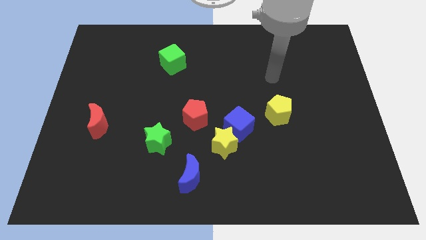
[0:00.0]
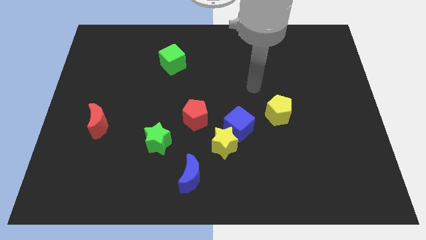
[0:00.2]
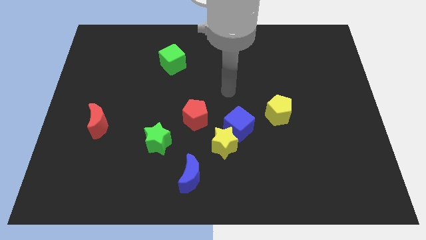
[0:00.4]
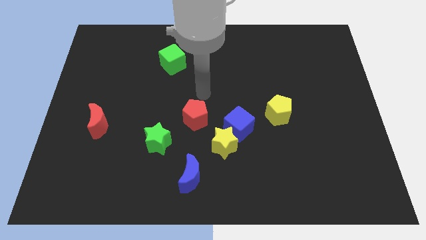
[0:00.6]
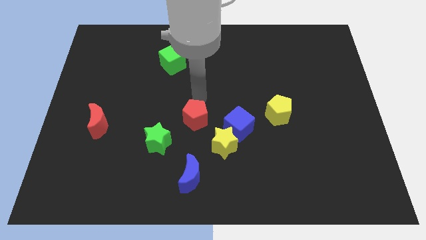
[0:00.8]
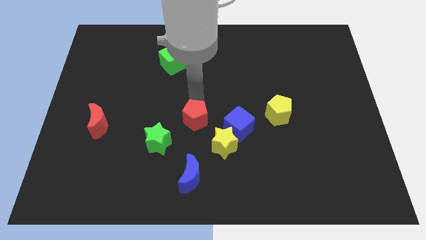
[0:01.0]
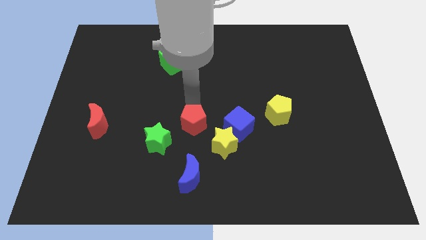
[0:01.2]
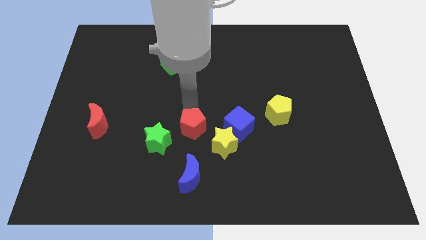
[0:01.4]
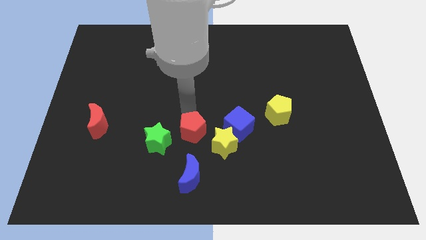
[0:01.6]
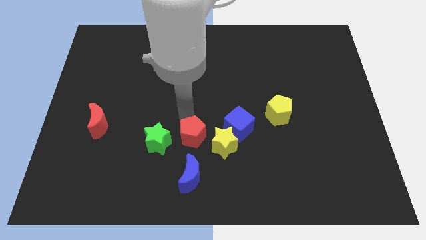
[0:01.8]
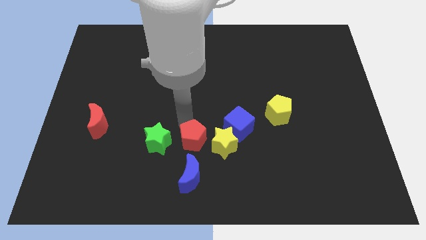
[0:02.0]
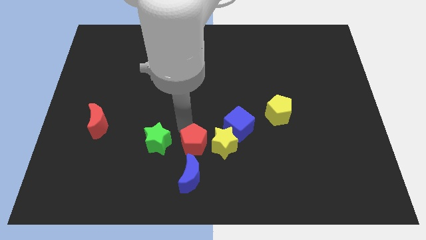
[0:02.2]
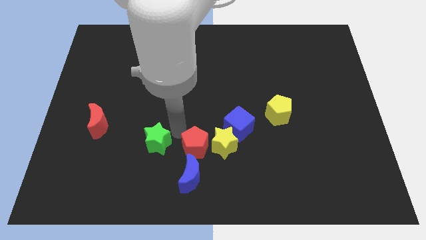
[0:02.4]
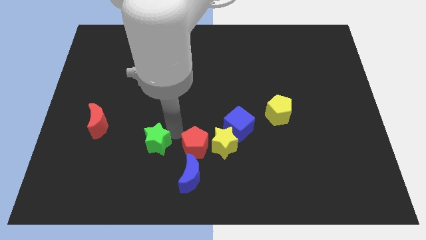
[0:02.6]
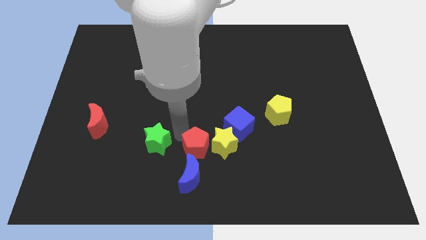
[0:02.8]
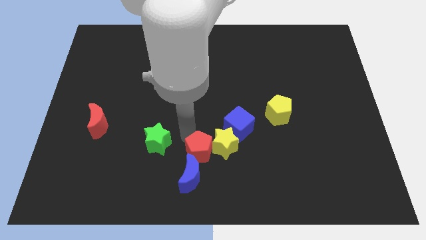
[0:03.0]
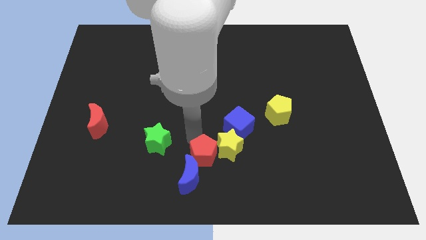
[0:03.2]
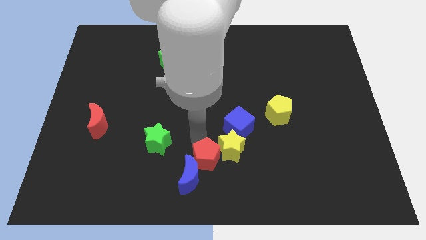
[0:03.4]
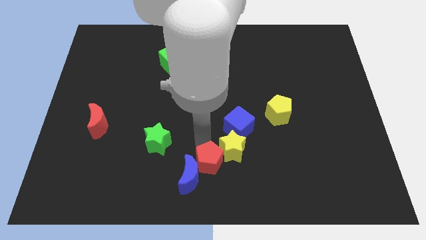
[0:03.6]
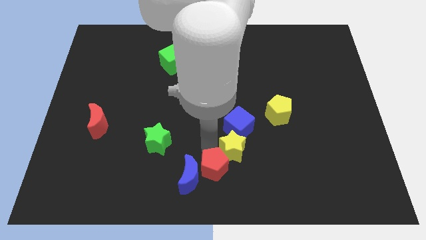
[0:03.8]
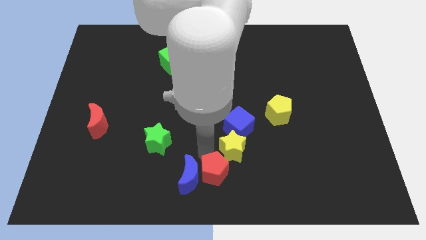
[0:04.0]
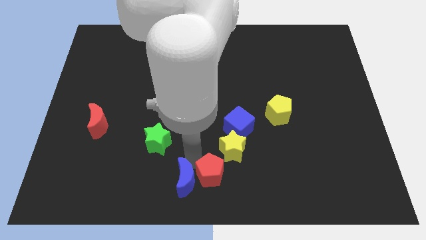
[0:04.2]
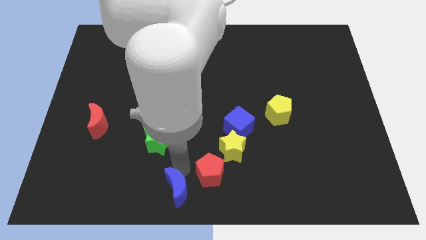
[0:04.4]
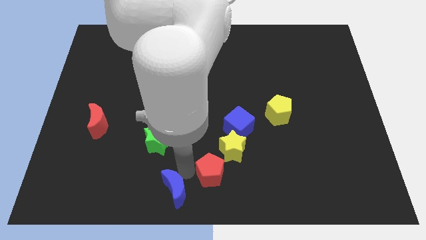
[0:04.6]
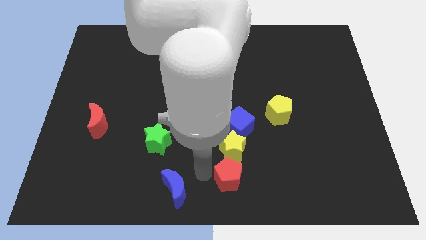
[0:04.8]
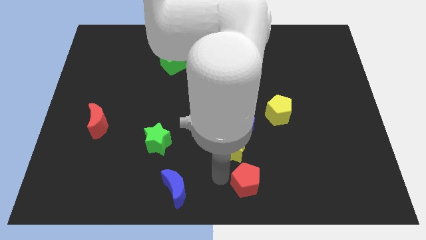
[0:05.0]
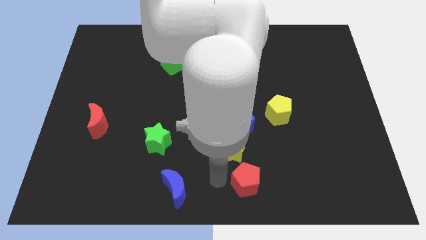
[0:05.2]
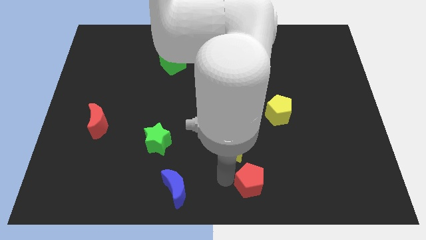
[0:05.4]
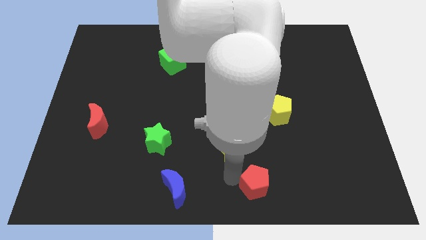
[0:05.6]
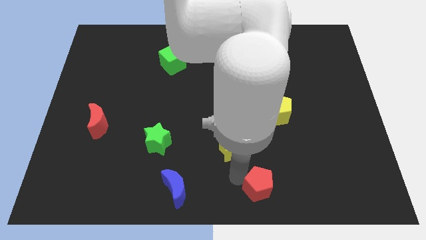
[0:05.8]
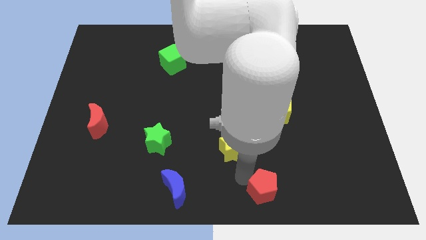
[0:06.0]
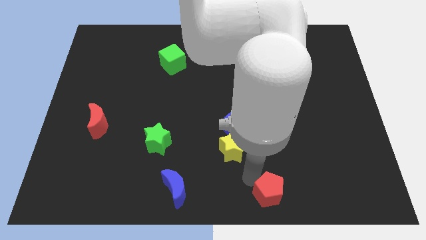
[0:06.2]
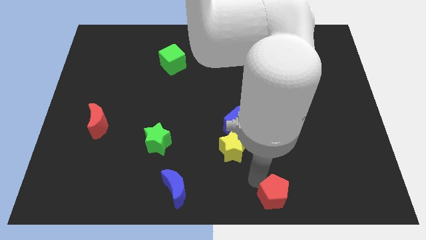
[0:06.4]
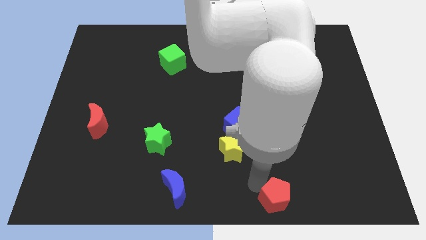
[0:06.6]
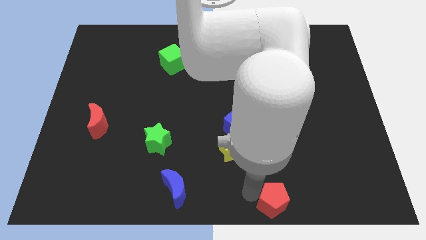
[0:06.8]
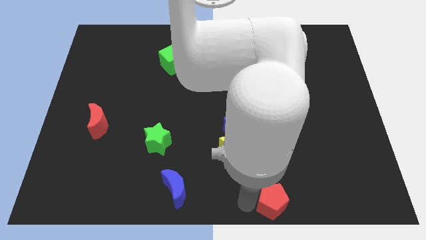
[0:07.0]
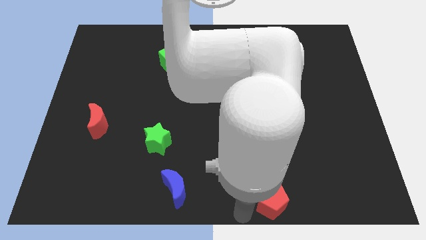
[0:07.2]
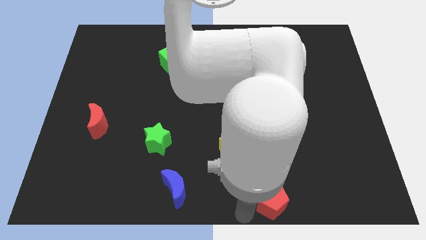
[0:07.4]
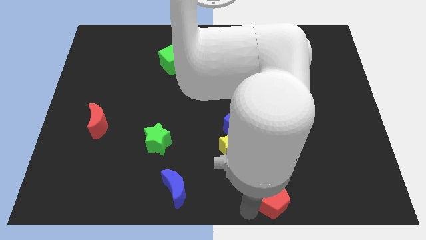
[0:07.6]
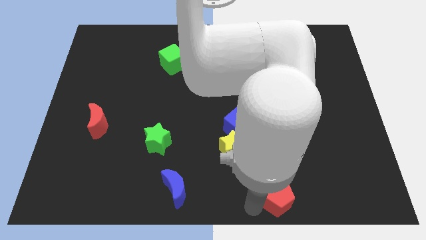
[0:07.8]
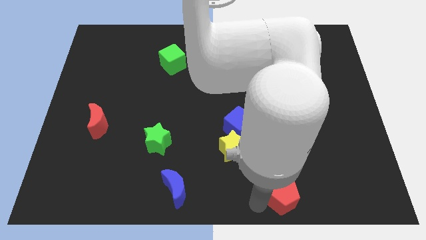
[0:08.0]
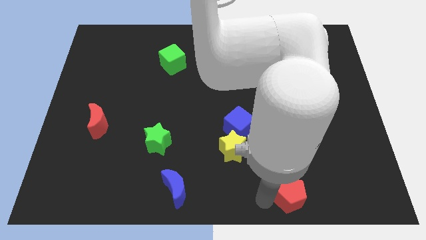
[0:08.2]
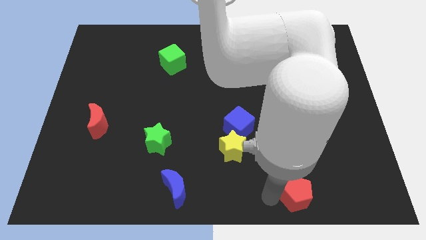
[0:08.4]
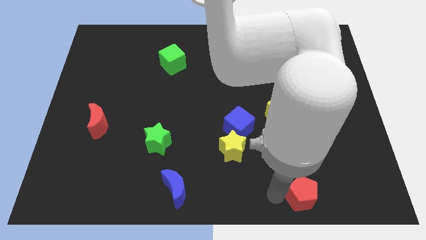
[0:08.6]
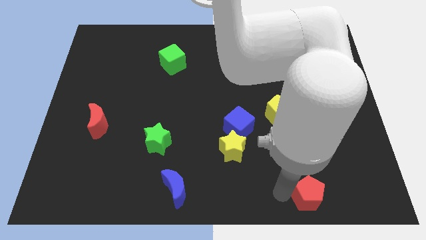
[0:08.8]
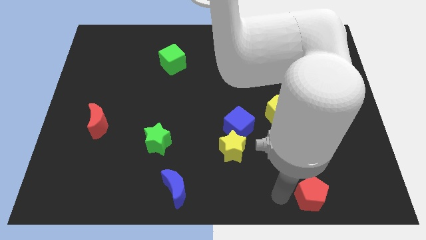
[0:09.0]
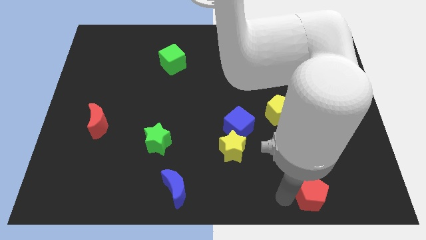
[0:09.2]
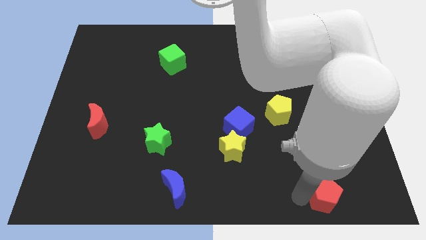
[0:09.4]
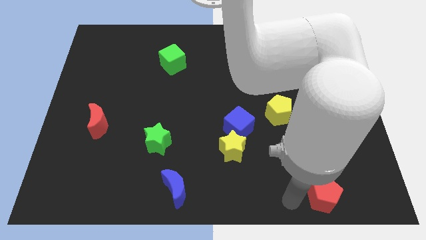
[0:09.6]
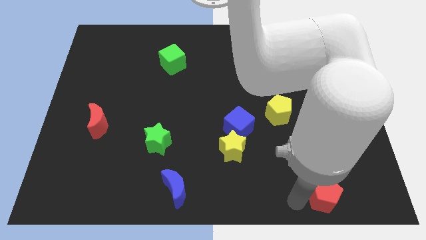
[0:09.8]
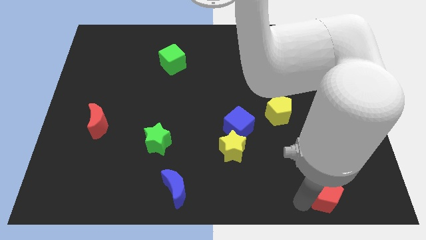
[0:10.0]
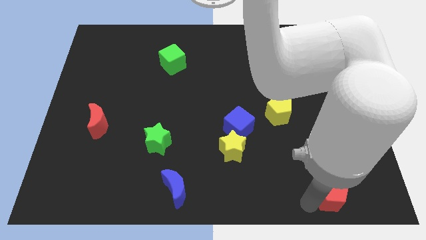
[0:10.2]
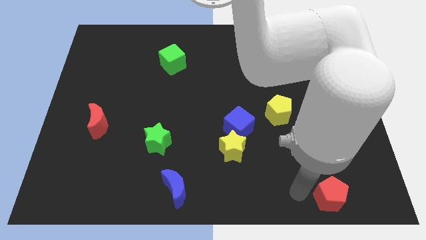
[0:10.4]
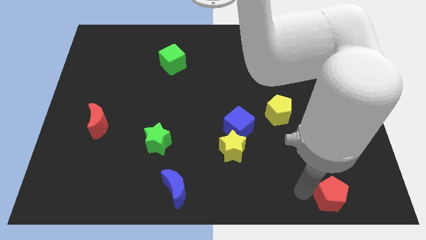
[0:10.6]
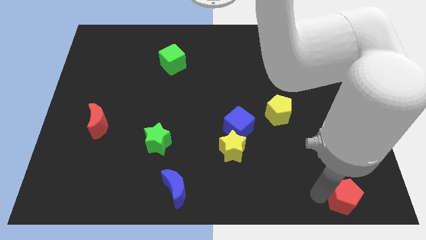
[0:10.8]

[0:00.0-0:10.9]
push the red pentagon to the lower right corner
